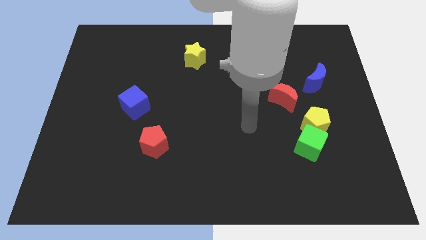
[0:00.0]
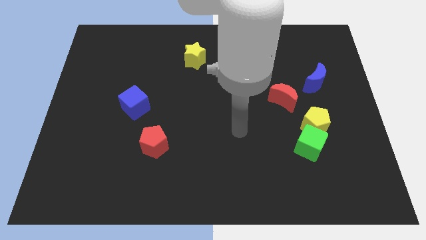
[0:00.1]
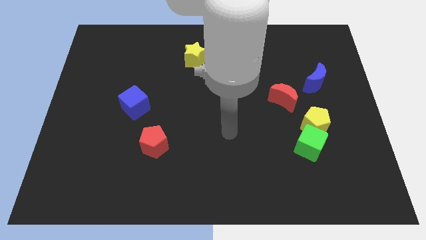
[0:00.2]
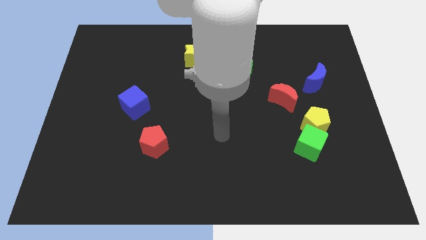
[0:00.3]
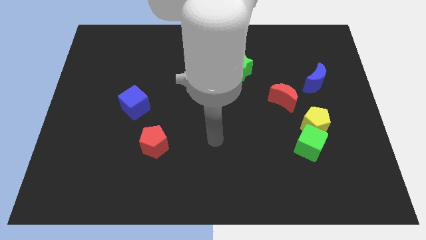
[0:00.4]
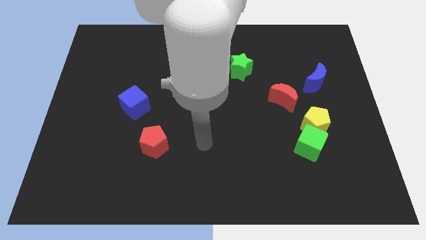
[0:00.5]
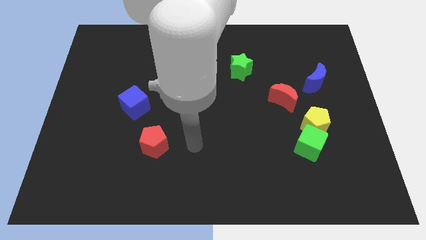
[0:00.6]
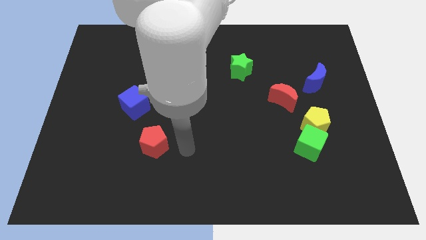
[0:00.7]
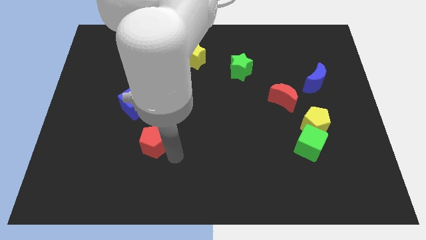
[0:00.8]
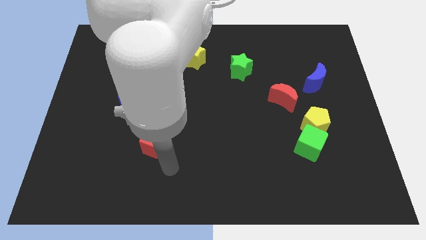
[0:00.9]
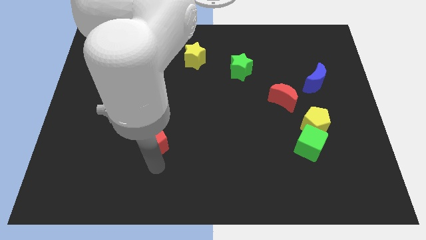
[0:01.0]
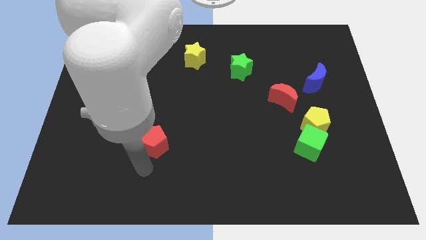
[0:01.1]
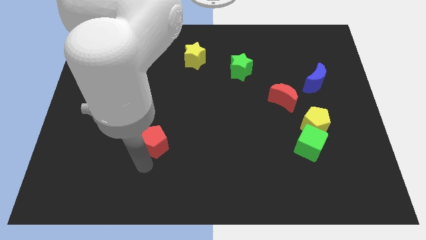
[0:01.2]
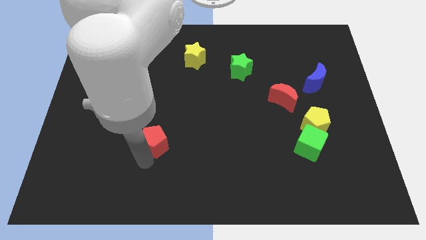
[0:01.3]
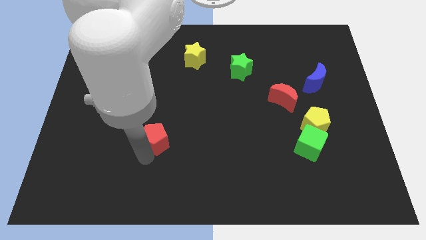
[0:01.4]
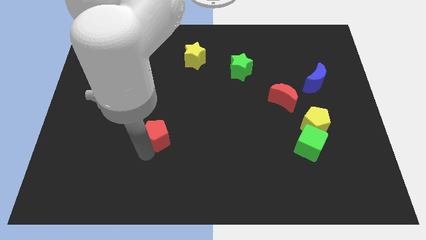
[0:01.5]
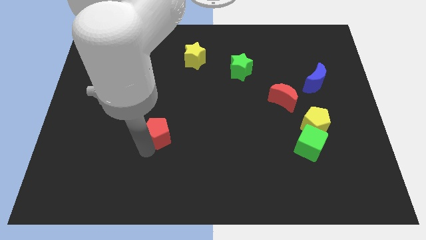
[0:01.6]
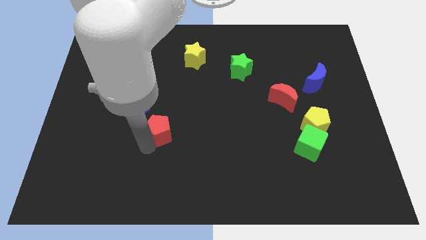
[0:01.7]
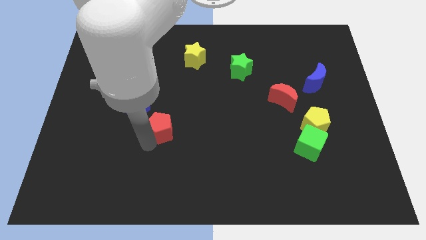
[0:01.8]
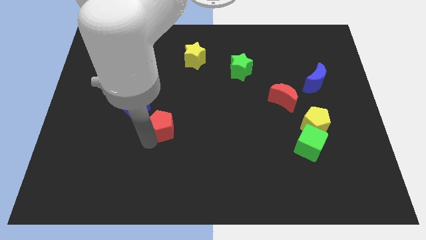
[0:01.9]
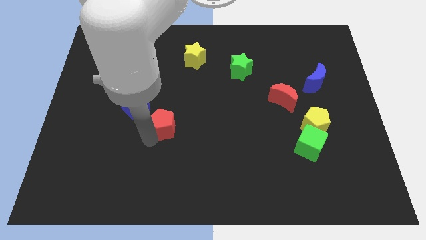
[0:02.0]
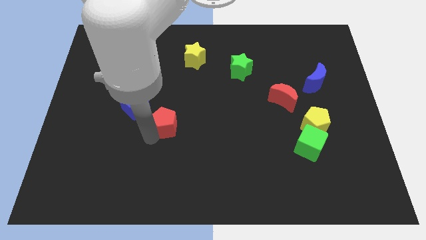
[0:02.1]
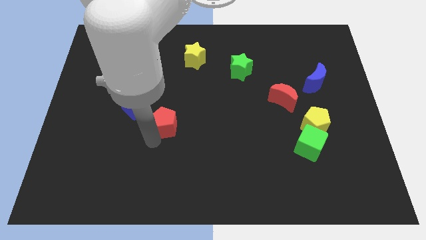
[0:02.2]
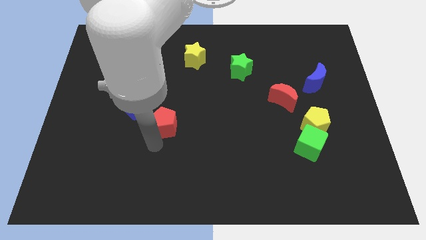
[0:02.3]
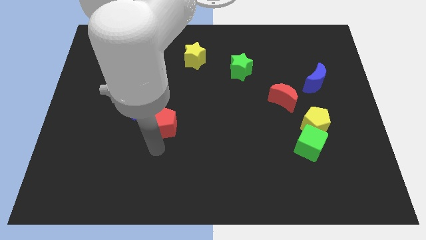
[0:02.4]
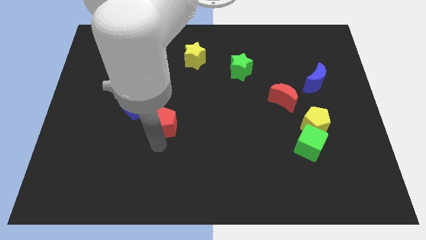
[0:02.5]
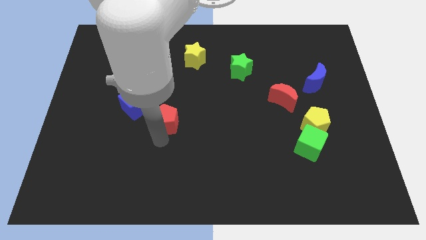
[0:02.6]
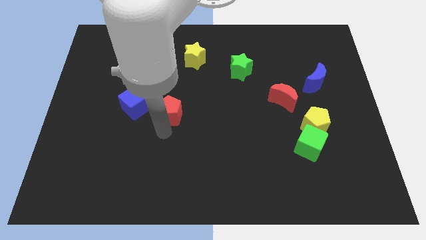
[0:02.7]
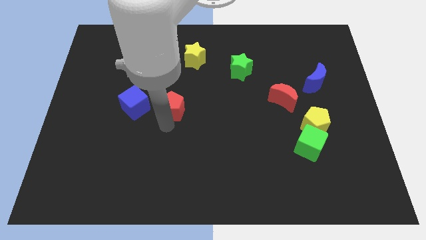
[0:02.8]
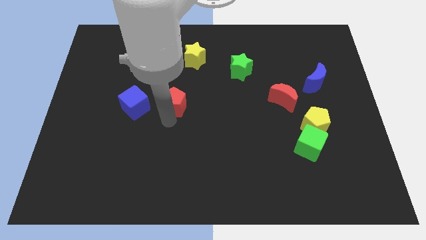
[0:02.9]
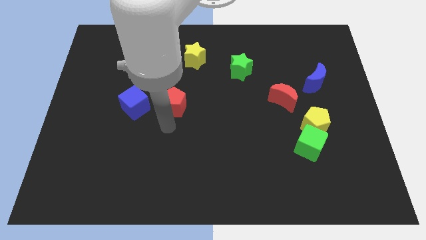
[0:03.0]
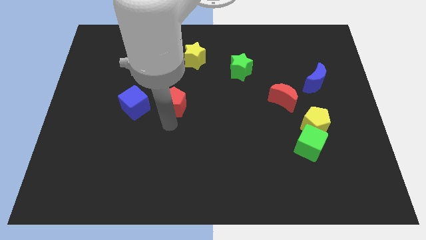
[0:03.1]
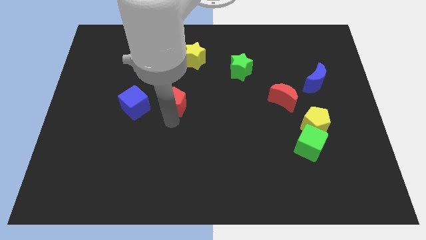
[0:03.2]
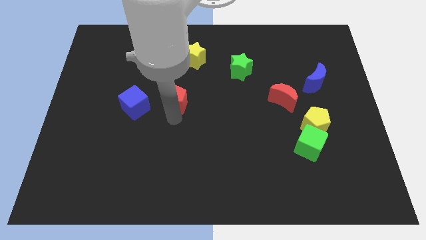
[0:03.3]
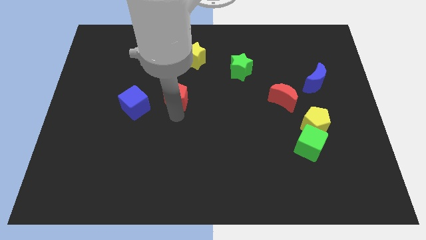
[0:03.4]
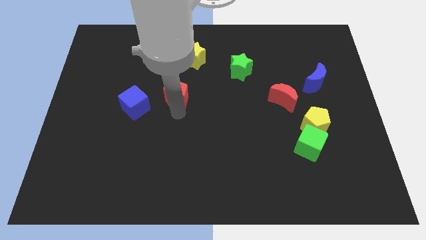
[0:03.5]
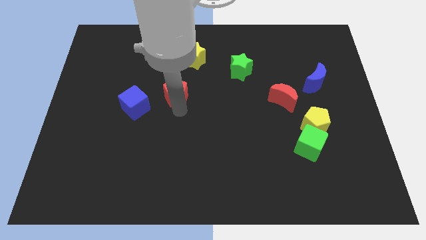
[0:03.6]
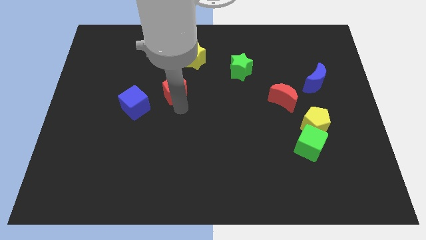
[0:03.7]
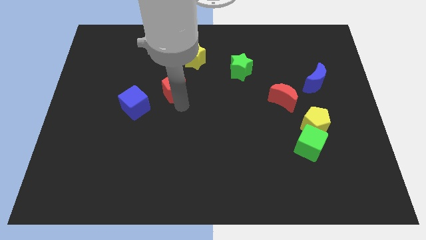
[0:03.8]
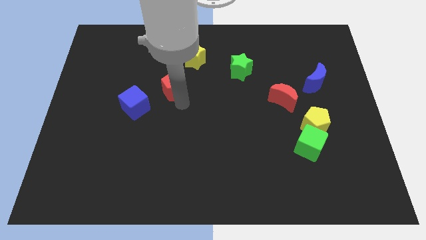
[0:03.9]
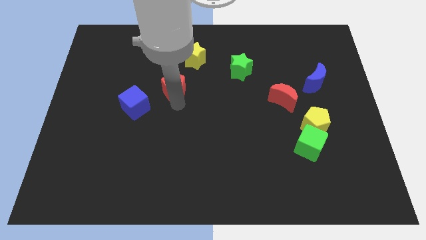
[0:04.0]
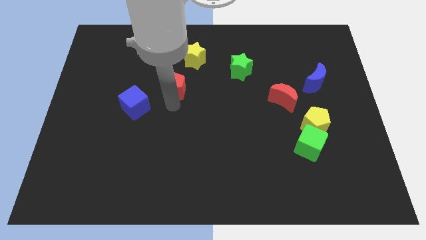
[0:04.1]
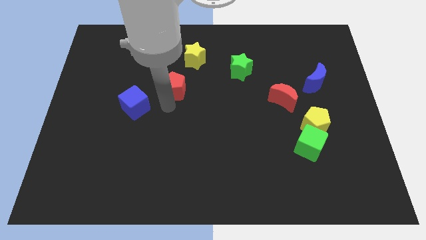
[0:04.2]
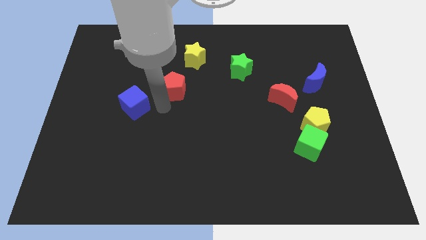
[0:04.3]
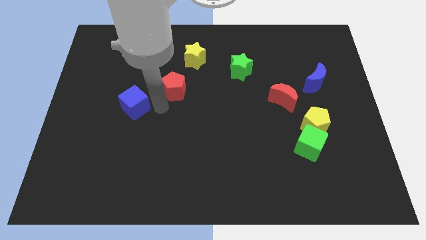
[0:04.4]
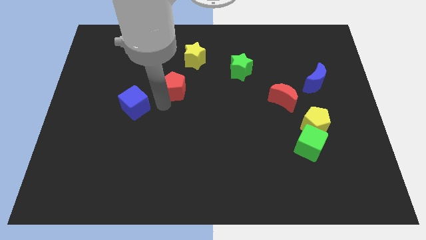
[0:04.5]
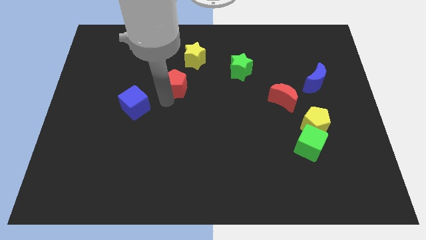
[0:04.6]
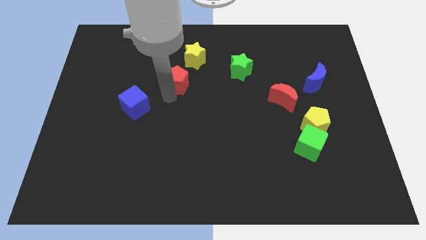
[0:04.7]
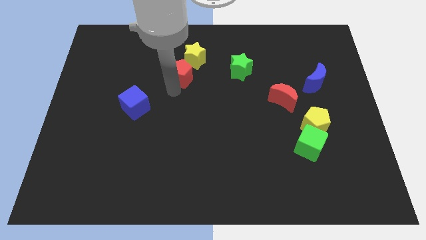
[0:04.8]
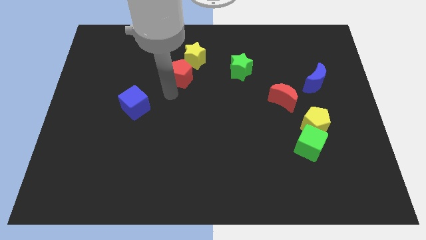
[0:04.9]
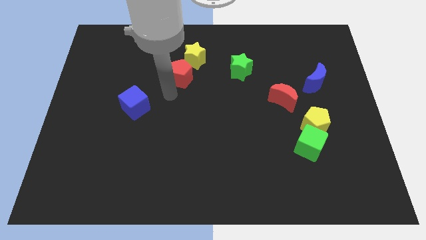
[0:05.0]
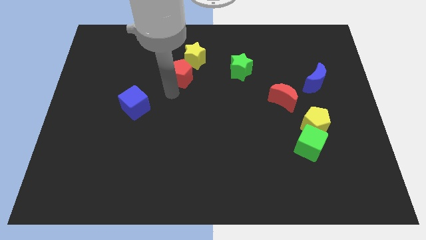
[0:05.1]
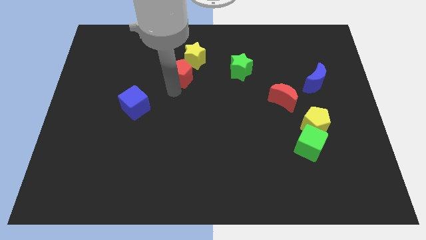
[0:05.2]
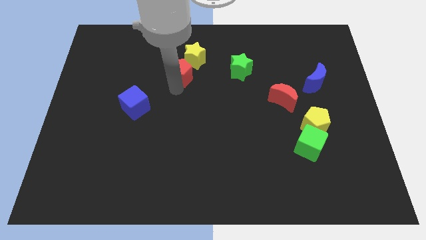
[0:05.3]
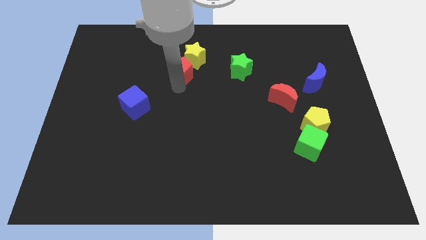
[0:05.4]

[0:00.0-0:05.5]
move the red pentagon close to the yellow star

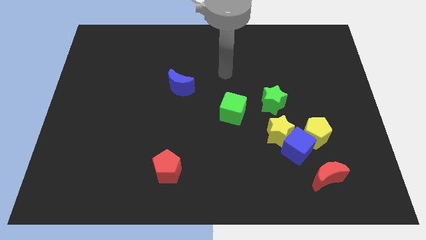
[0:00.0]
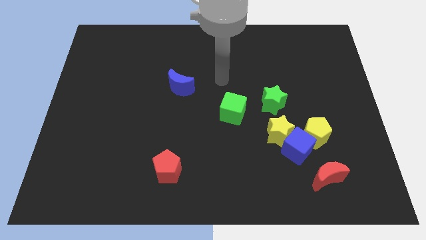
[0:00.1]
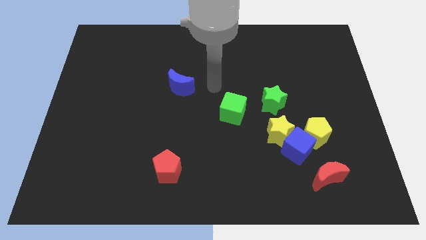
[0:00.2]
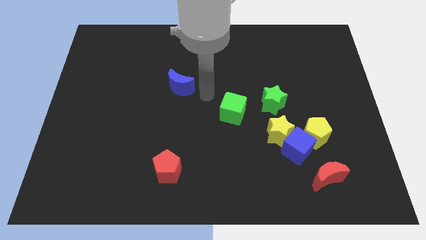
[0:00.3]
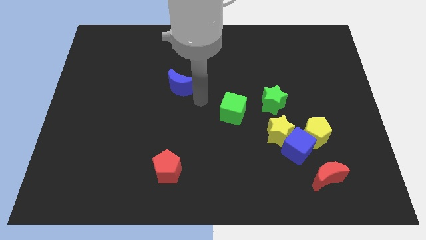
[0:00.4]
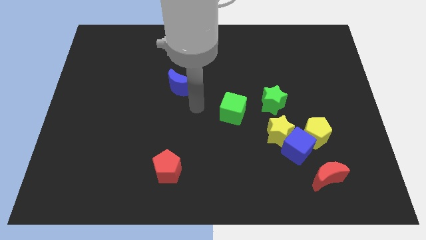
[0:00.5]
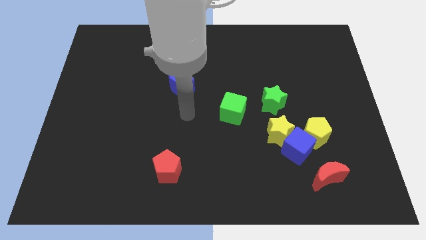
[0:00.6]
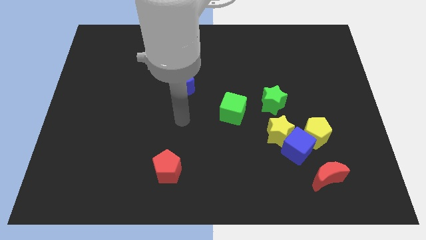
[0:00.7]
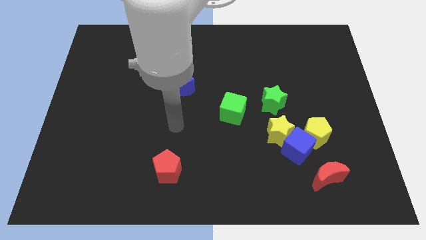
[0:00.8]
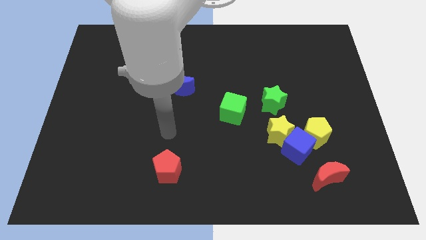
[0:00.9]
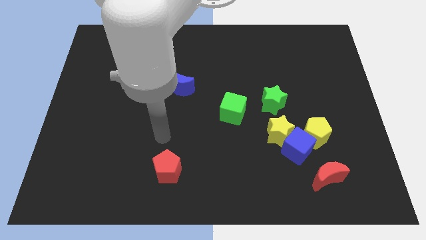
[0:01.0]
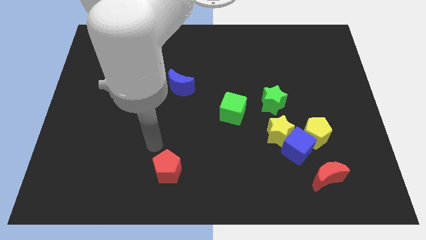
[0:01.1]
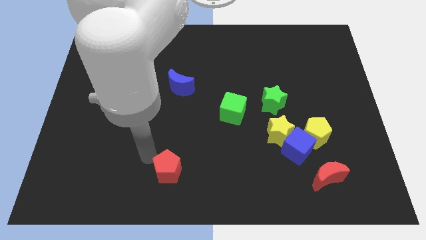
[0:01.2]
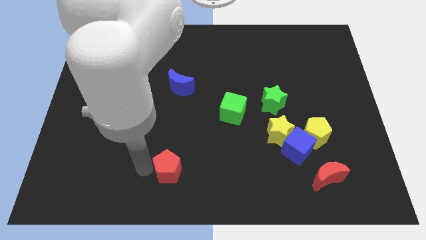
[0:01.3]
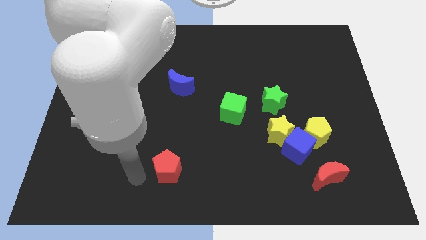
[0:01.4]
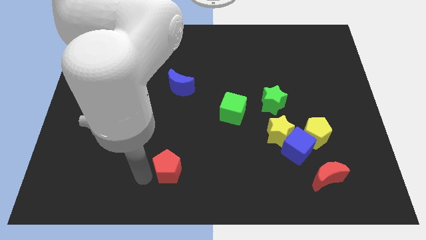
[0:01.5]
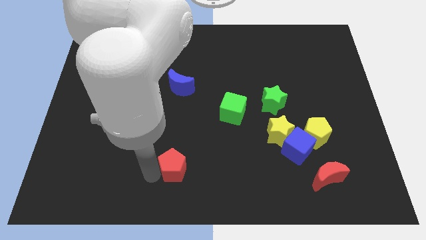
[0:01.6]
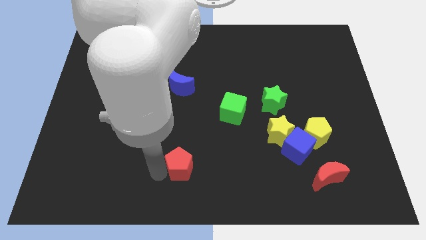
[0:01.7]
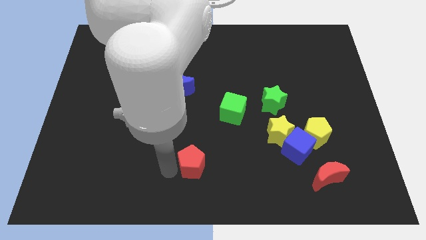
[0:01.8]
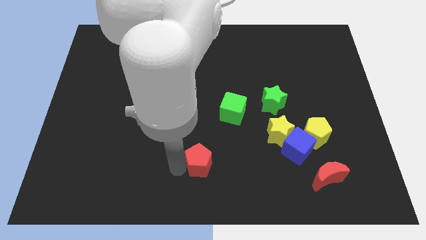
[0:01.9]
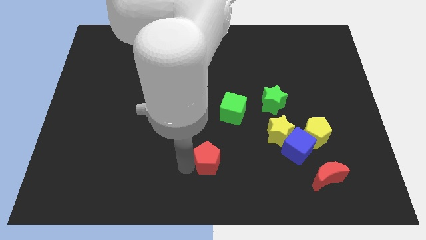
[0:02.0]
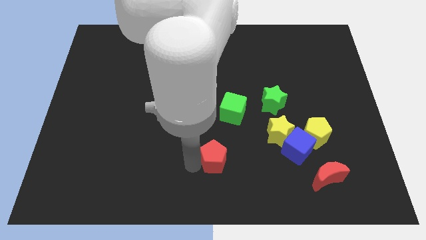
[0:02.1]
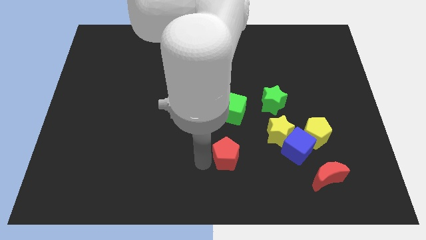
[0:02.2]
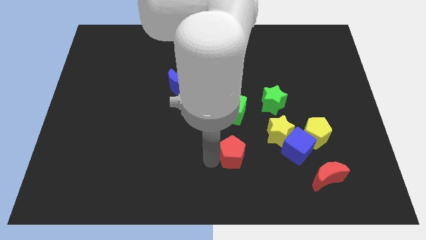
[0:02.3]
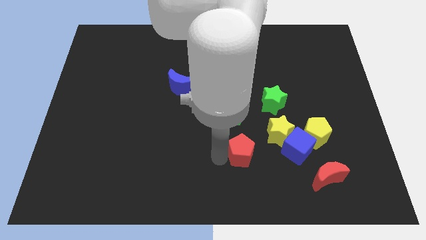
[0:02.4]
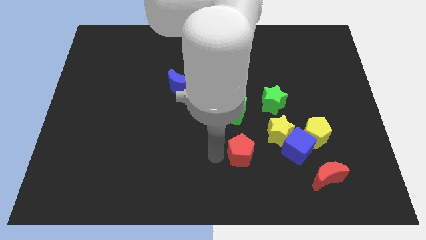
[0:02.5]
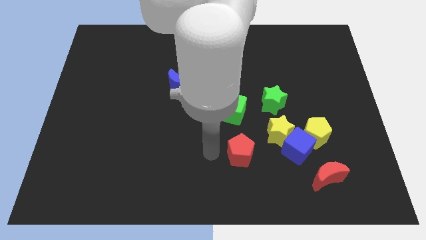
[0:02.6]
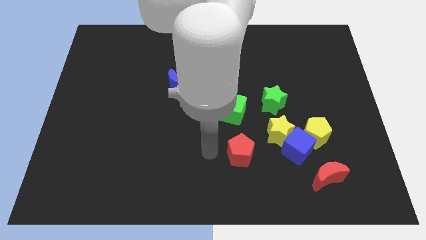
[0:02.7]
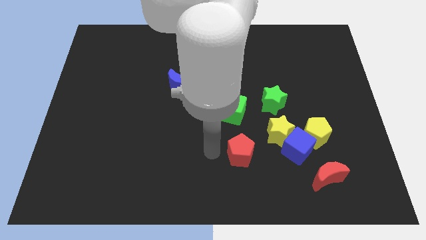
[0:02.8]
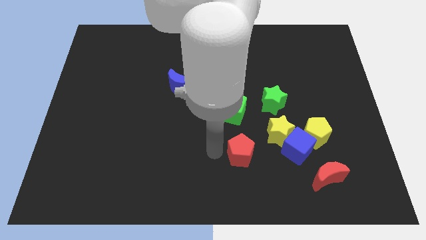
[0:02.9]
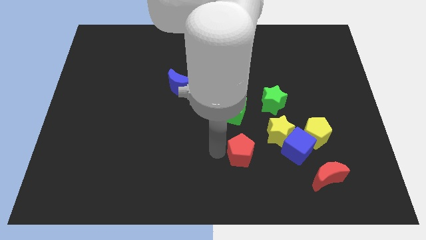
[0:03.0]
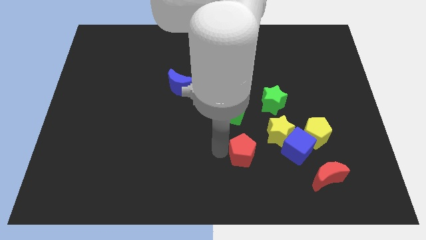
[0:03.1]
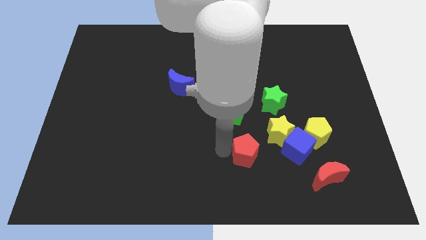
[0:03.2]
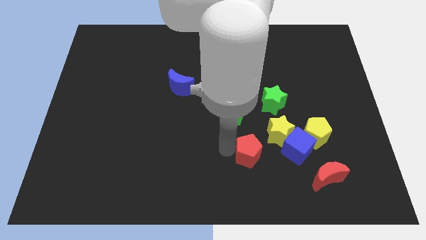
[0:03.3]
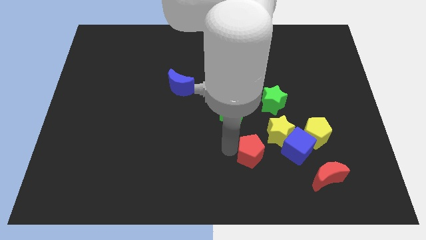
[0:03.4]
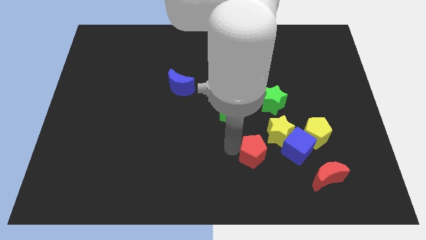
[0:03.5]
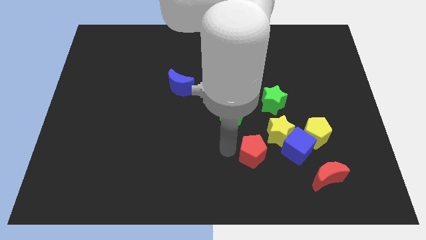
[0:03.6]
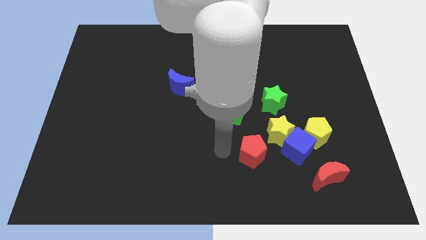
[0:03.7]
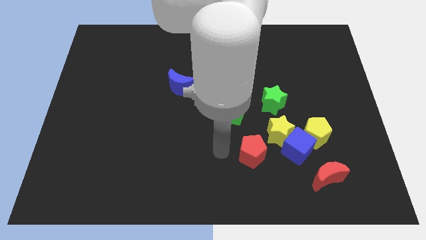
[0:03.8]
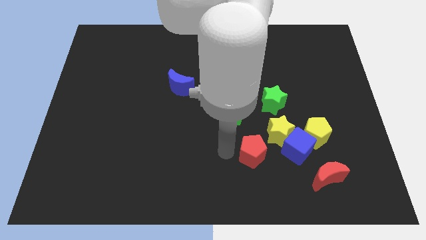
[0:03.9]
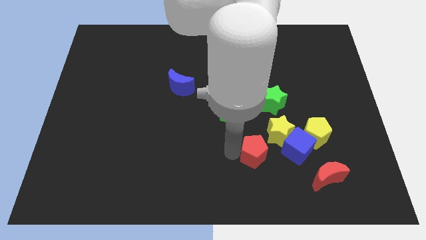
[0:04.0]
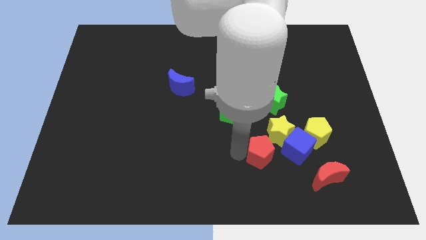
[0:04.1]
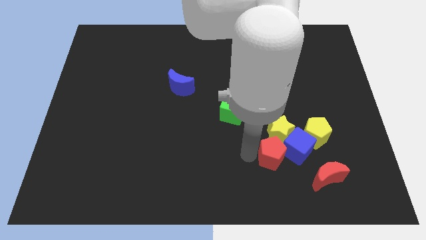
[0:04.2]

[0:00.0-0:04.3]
push the red pentagon to the blue cube
